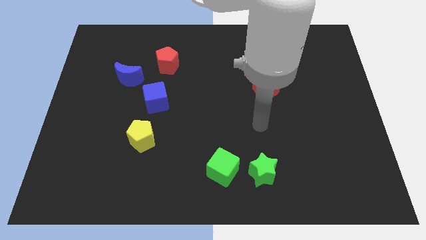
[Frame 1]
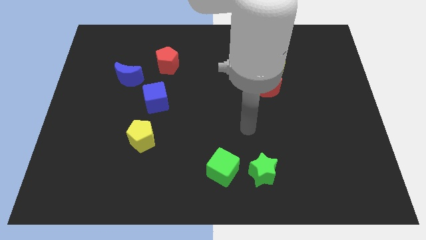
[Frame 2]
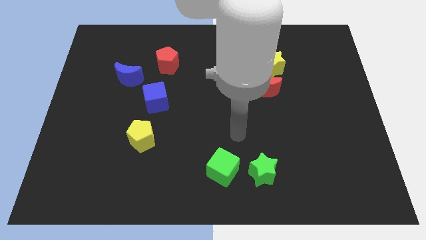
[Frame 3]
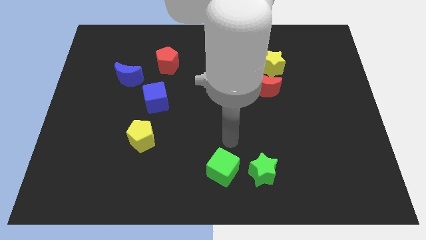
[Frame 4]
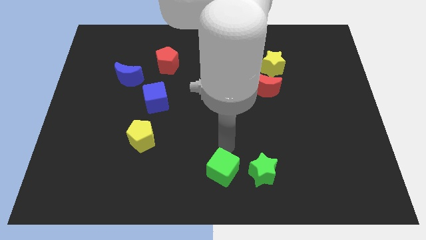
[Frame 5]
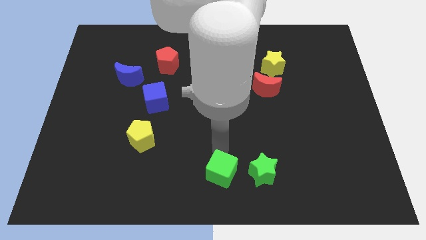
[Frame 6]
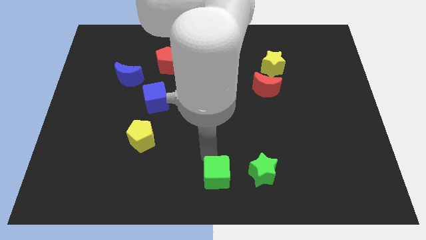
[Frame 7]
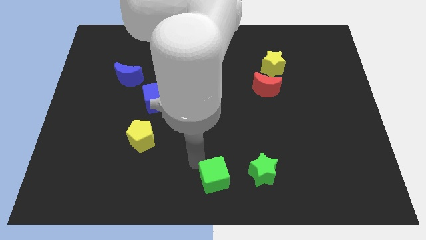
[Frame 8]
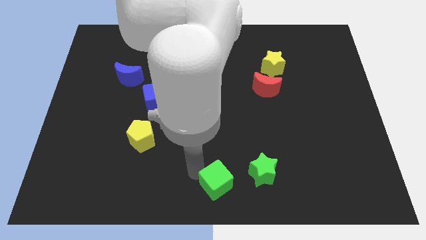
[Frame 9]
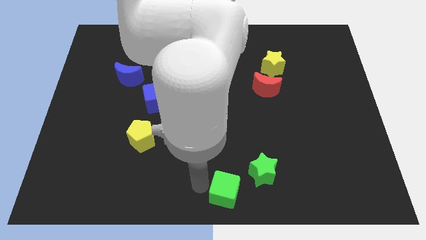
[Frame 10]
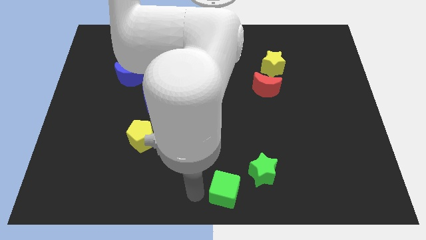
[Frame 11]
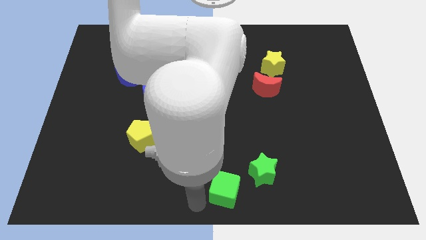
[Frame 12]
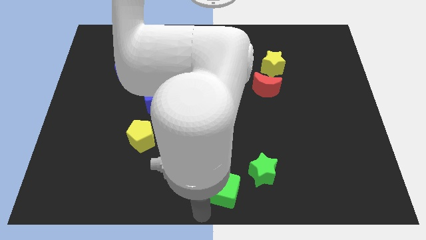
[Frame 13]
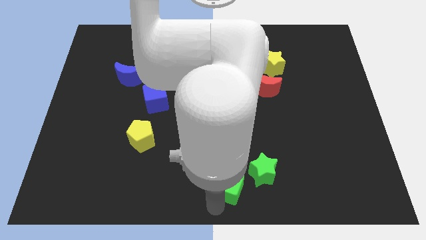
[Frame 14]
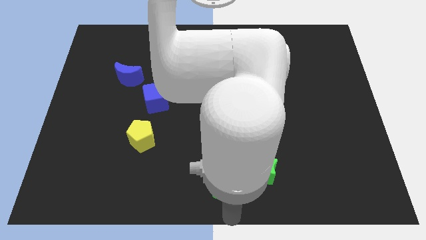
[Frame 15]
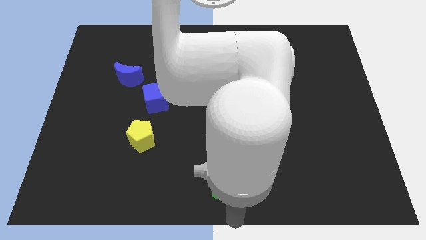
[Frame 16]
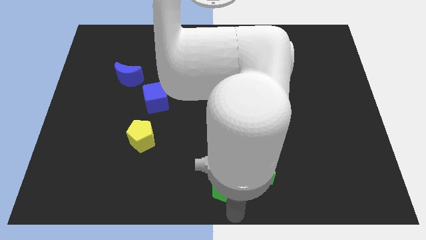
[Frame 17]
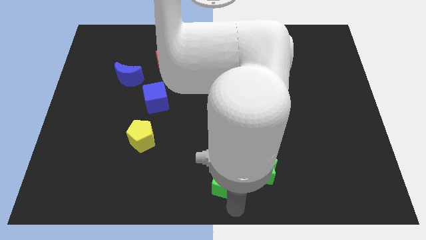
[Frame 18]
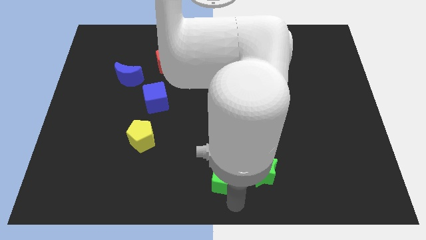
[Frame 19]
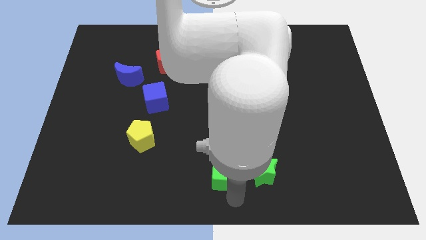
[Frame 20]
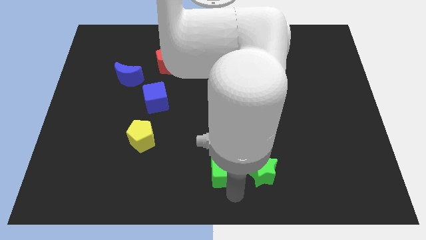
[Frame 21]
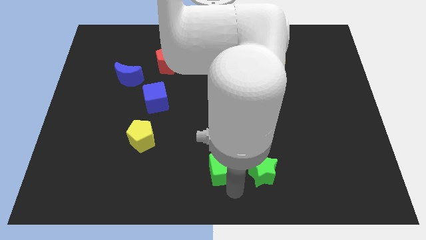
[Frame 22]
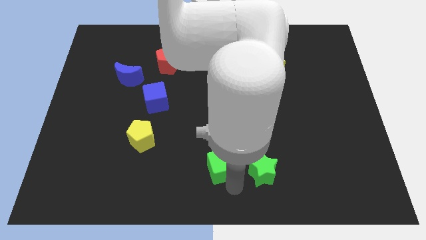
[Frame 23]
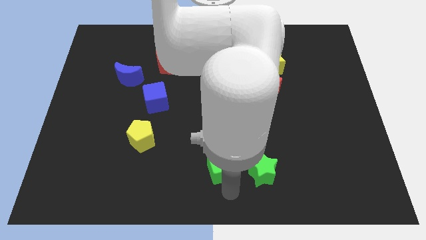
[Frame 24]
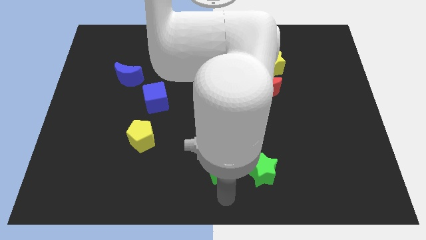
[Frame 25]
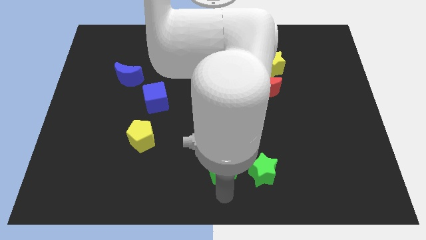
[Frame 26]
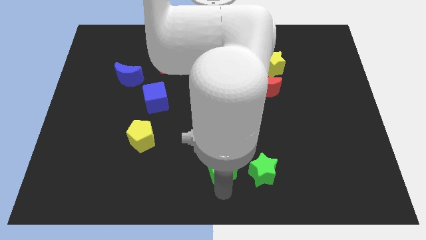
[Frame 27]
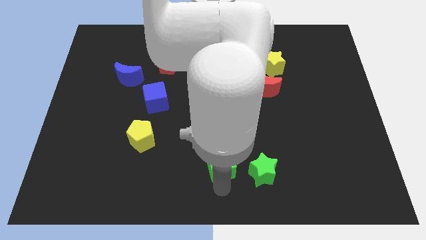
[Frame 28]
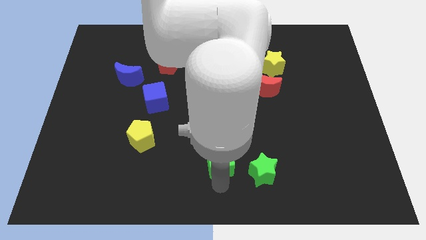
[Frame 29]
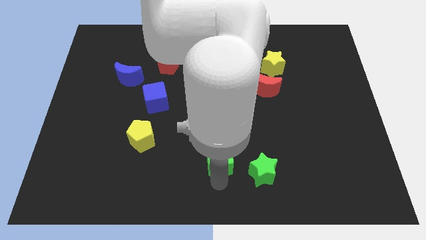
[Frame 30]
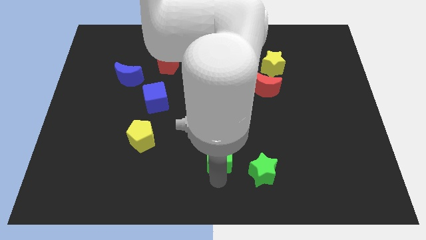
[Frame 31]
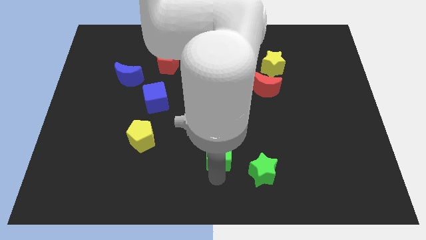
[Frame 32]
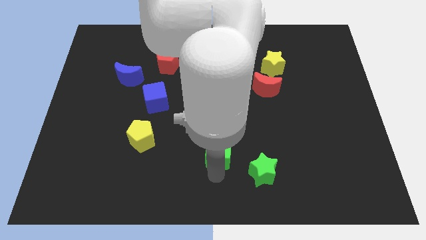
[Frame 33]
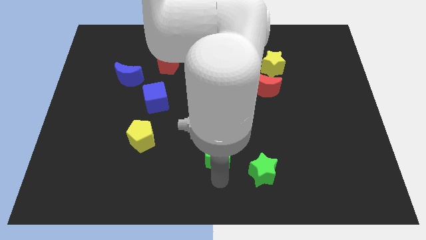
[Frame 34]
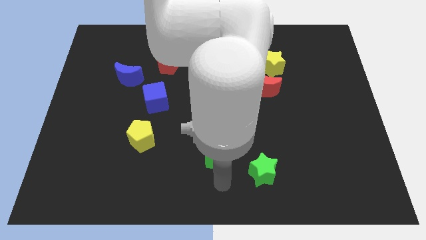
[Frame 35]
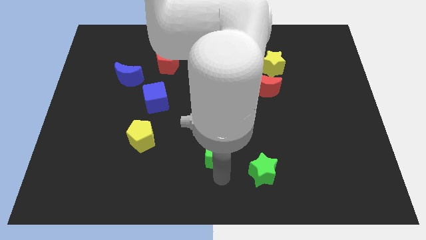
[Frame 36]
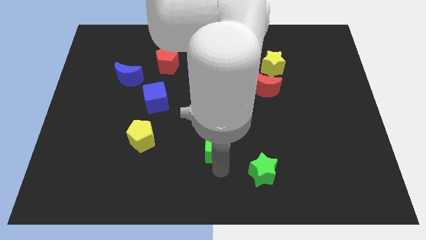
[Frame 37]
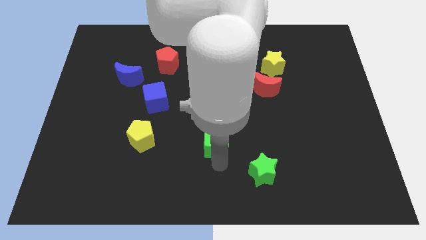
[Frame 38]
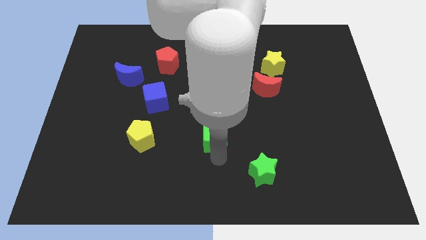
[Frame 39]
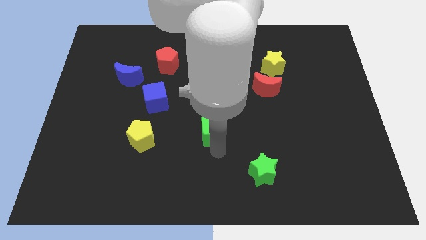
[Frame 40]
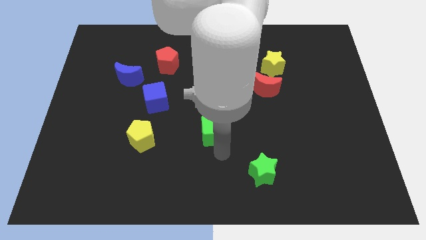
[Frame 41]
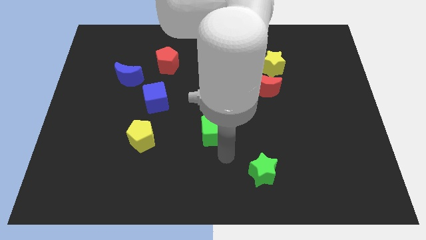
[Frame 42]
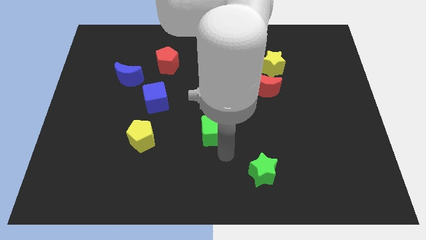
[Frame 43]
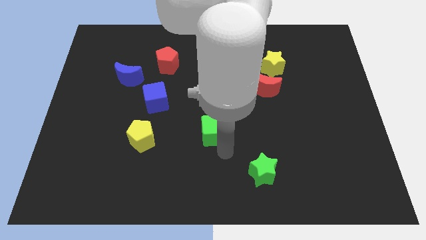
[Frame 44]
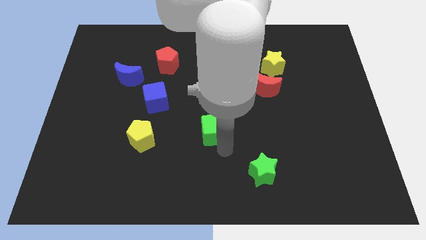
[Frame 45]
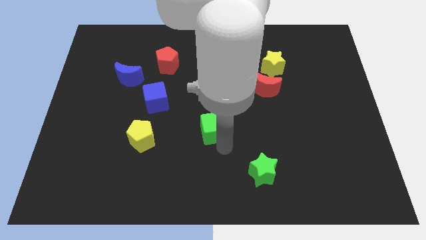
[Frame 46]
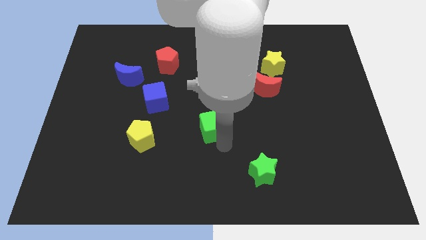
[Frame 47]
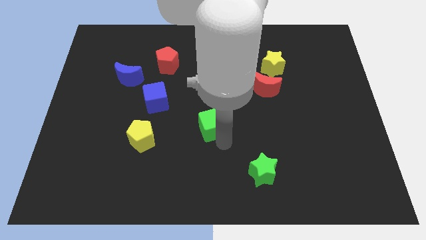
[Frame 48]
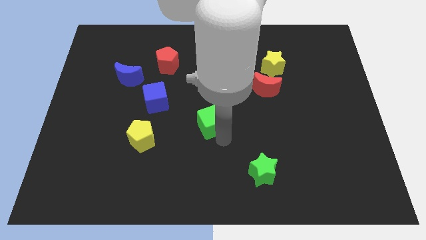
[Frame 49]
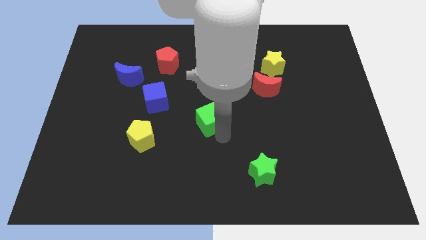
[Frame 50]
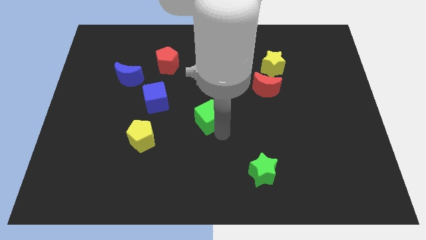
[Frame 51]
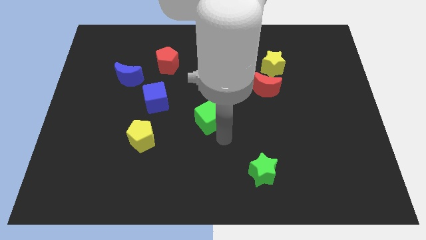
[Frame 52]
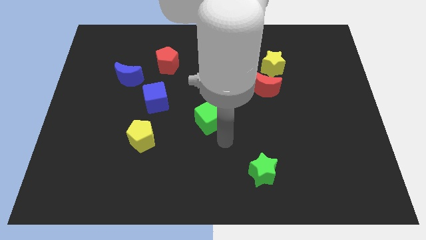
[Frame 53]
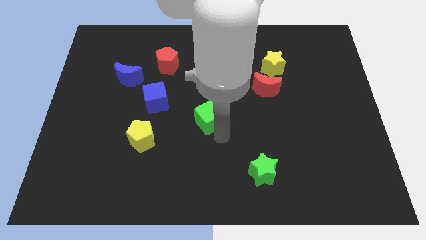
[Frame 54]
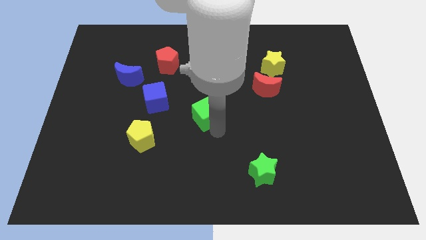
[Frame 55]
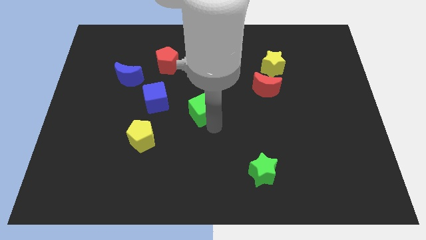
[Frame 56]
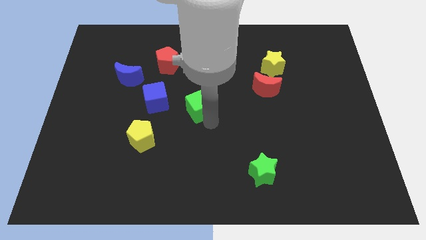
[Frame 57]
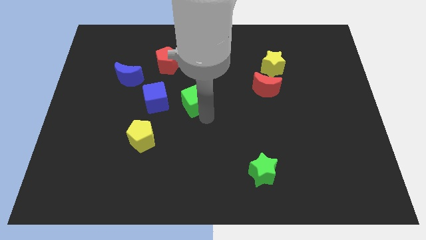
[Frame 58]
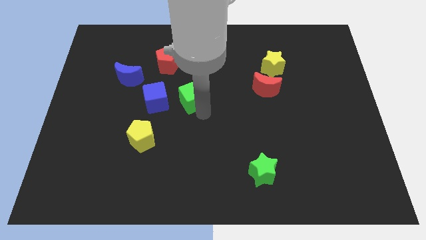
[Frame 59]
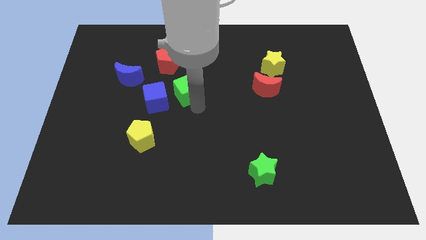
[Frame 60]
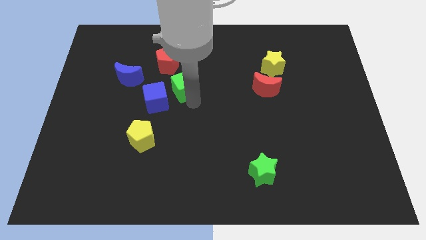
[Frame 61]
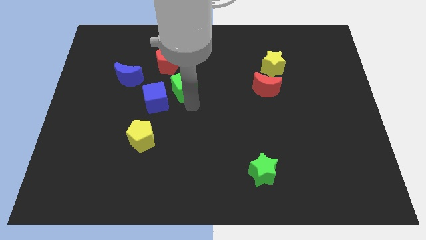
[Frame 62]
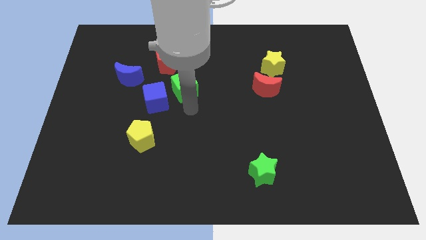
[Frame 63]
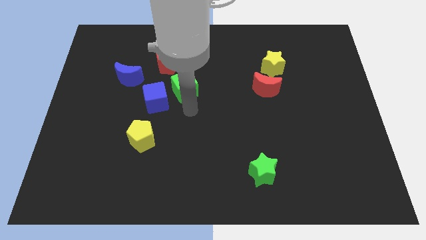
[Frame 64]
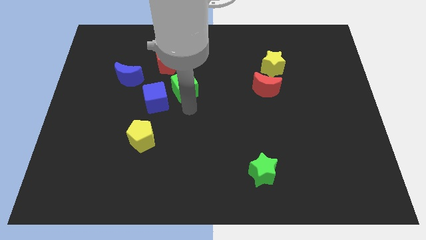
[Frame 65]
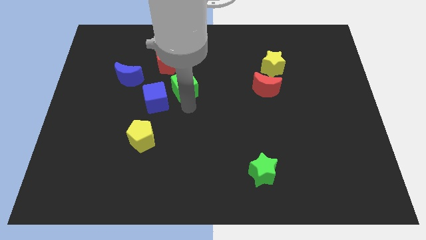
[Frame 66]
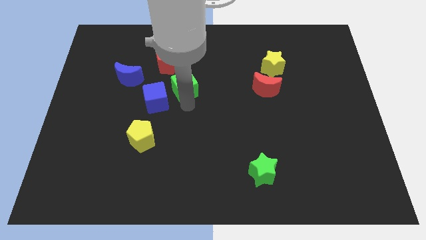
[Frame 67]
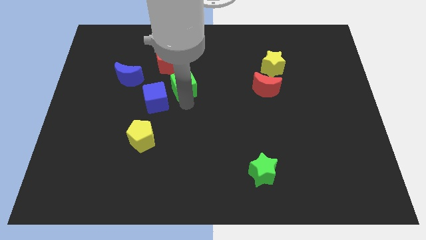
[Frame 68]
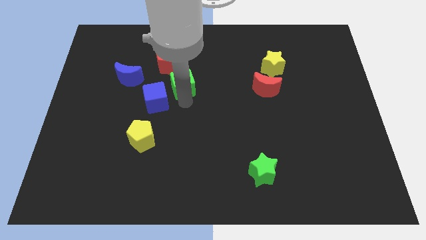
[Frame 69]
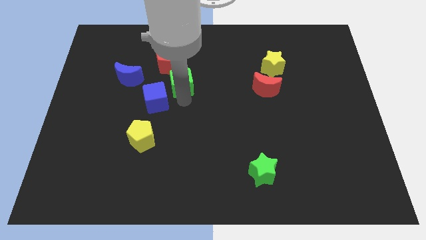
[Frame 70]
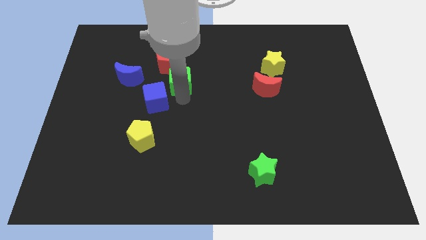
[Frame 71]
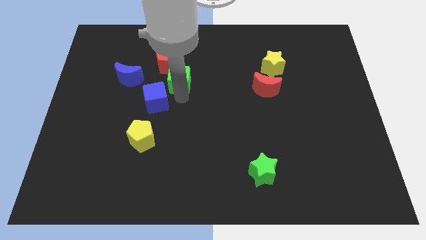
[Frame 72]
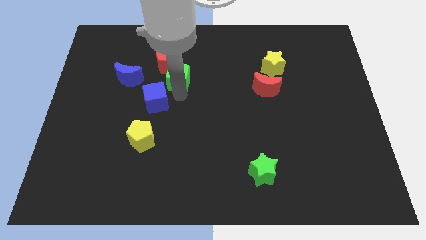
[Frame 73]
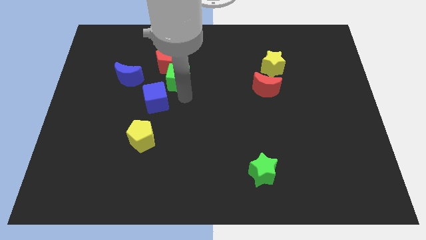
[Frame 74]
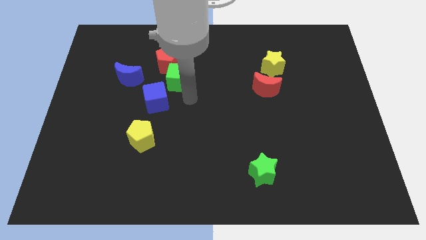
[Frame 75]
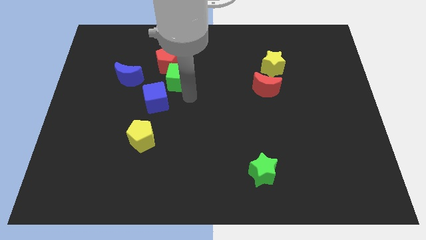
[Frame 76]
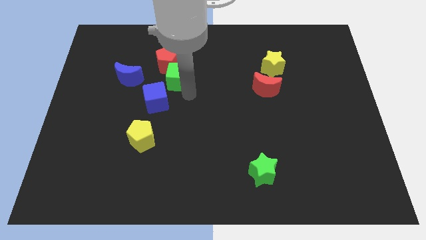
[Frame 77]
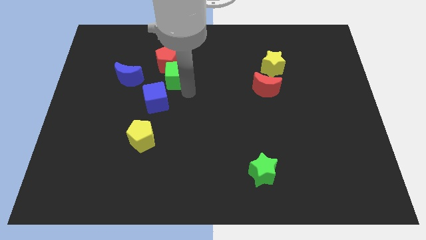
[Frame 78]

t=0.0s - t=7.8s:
push the green cube towards the red pentagon

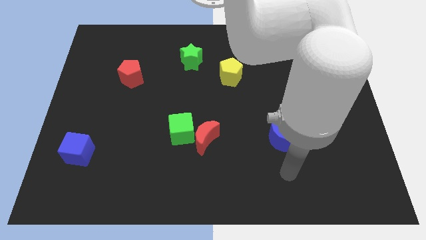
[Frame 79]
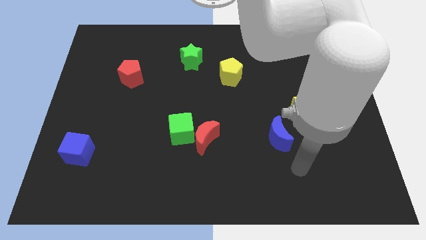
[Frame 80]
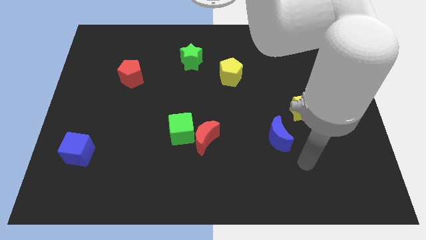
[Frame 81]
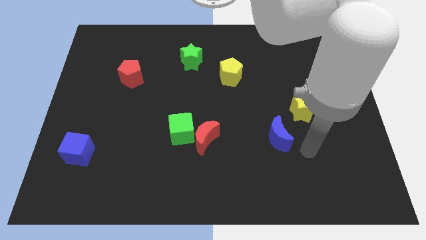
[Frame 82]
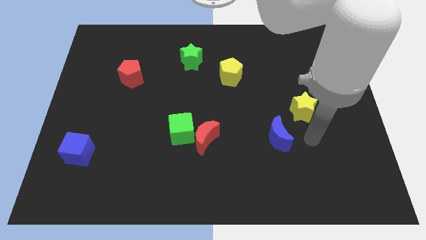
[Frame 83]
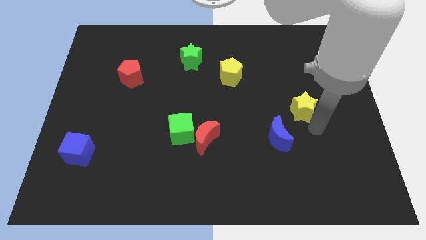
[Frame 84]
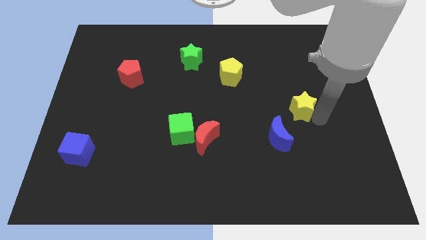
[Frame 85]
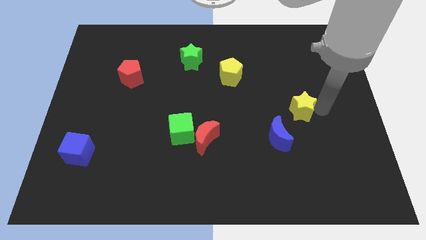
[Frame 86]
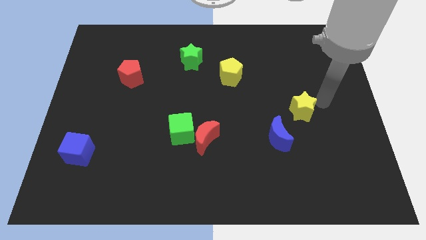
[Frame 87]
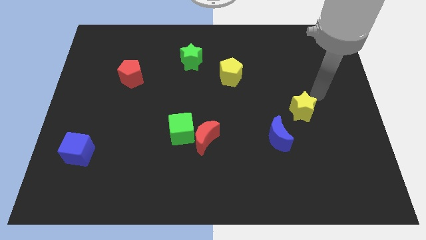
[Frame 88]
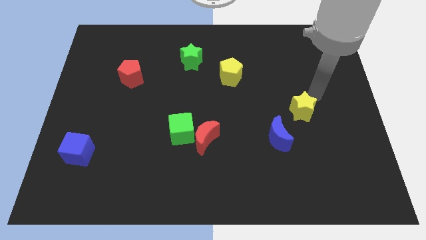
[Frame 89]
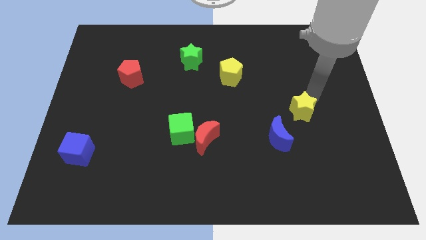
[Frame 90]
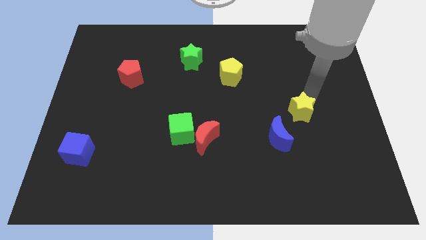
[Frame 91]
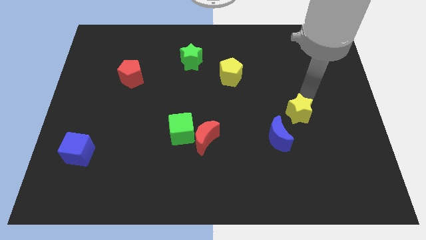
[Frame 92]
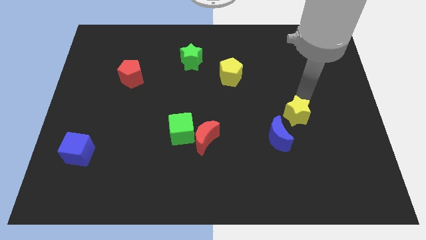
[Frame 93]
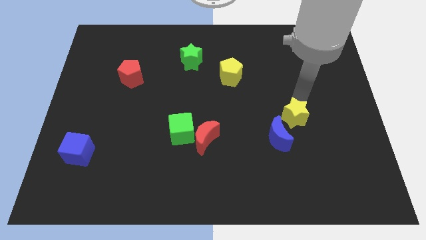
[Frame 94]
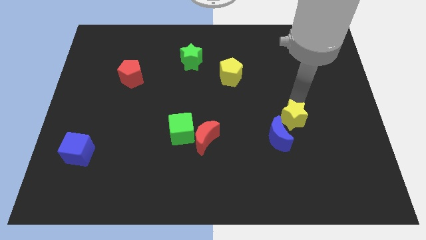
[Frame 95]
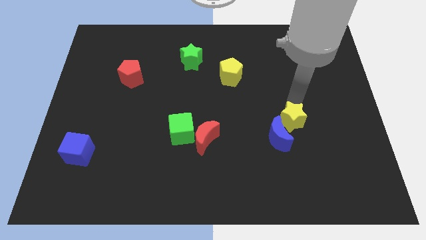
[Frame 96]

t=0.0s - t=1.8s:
push the yellow star towards the blue moon
